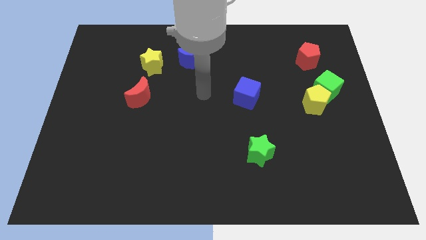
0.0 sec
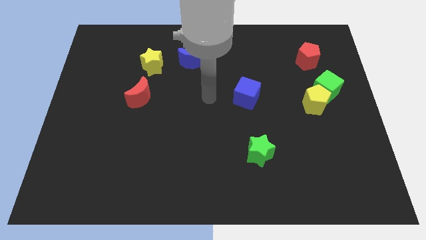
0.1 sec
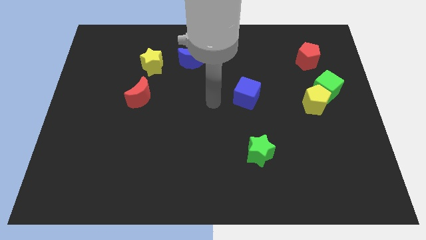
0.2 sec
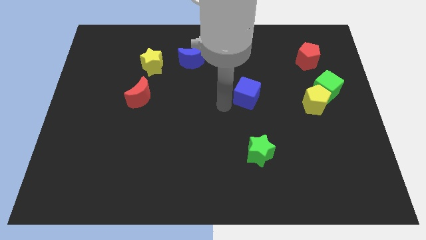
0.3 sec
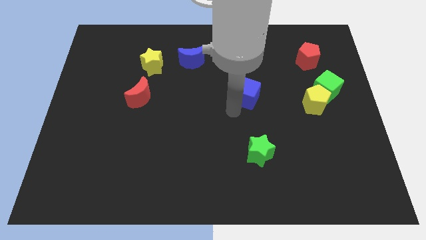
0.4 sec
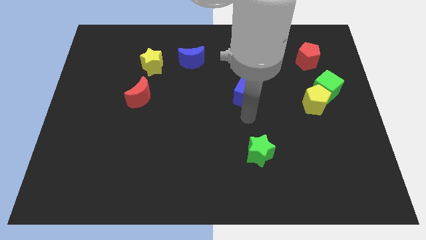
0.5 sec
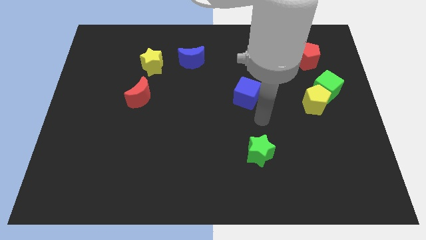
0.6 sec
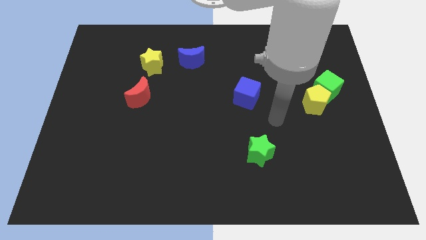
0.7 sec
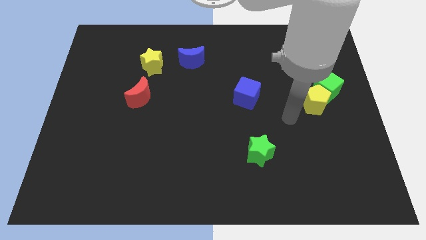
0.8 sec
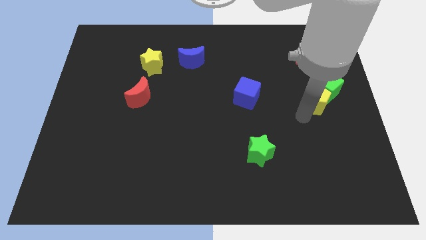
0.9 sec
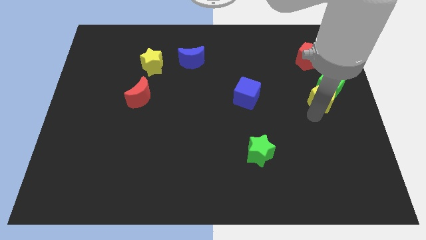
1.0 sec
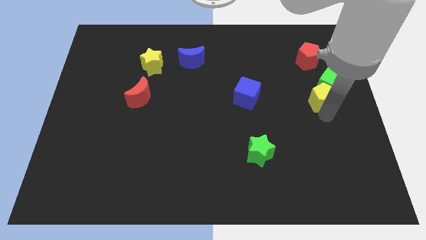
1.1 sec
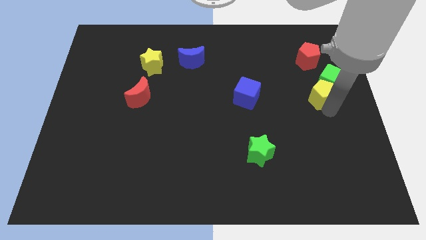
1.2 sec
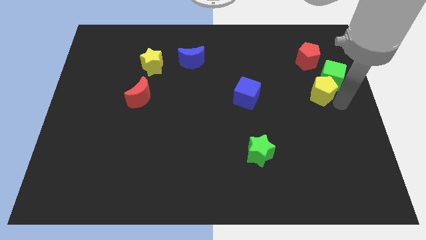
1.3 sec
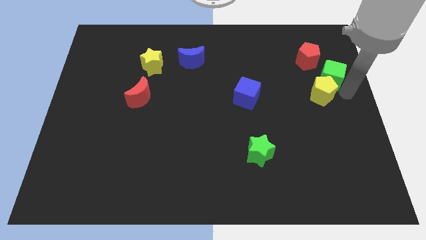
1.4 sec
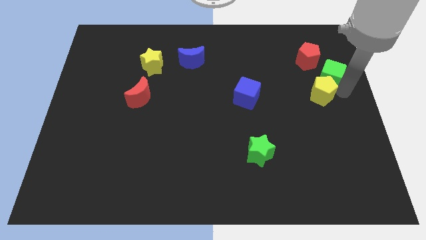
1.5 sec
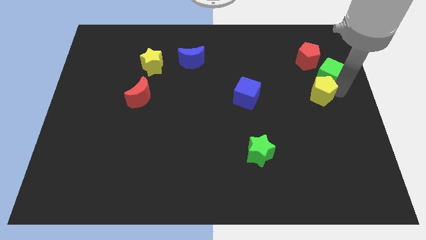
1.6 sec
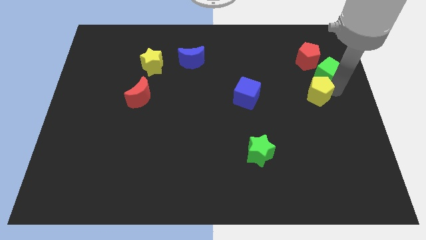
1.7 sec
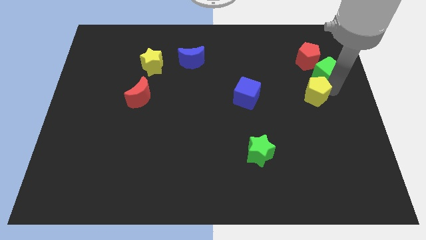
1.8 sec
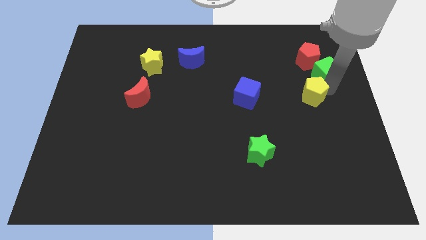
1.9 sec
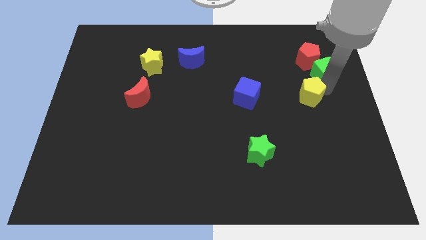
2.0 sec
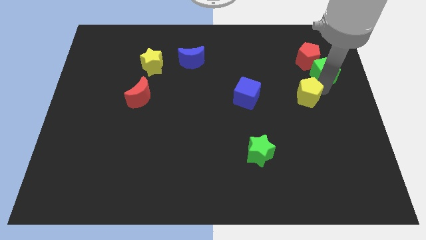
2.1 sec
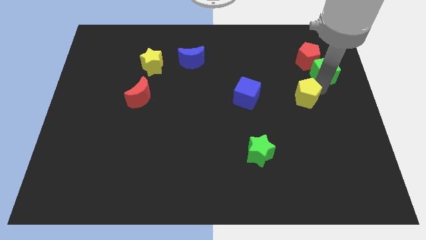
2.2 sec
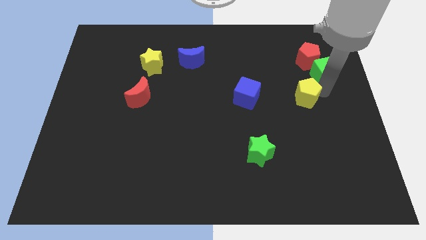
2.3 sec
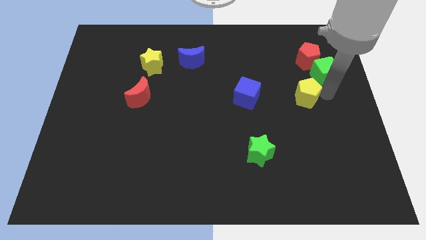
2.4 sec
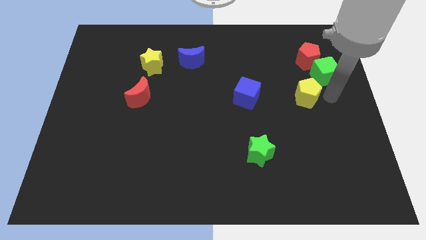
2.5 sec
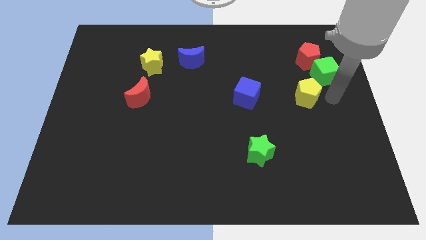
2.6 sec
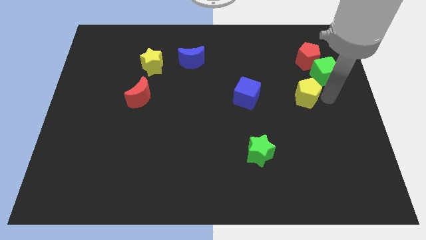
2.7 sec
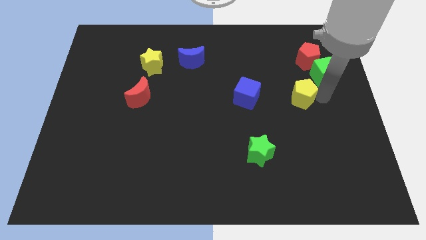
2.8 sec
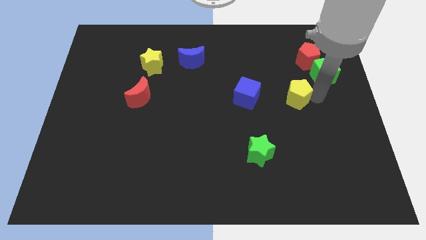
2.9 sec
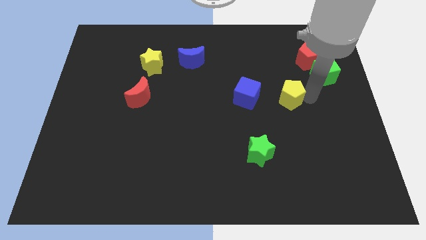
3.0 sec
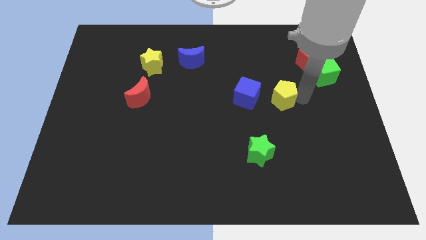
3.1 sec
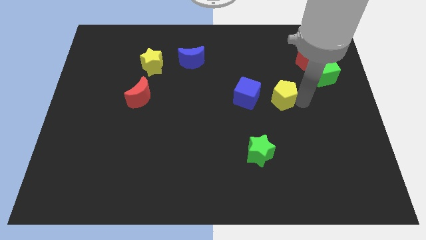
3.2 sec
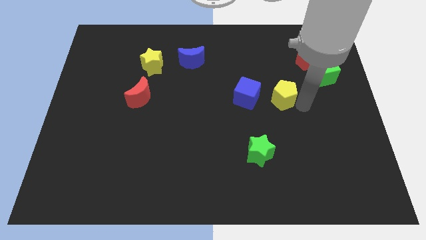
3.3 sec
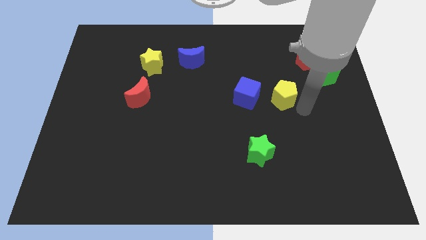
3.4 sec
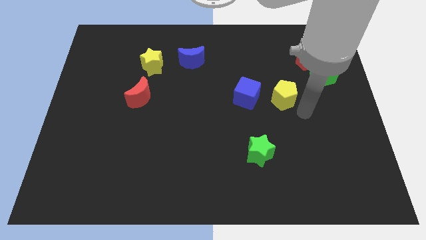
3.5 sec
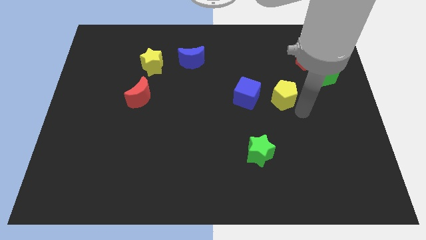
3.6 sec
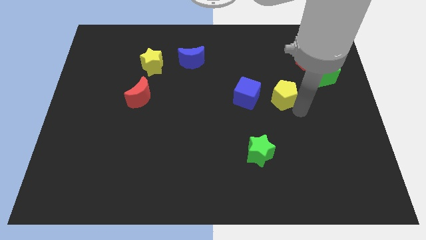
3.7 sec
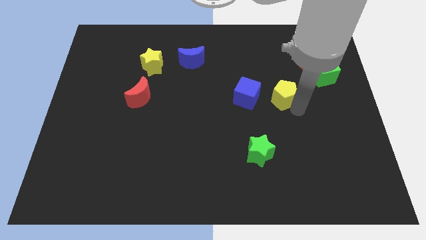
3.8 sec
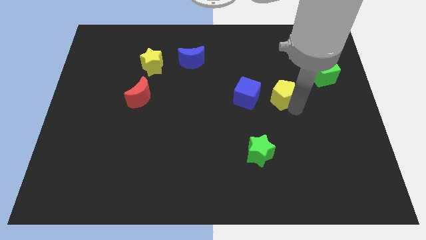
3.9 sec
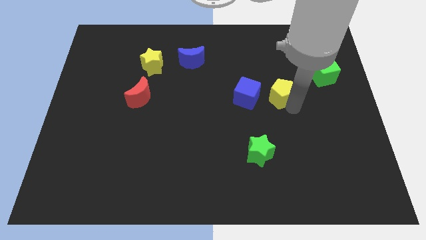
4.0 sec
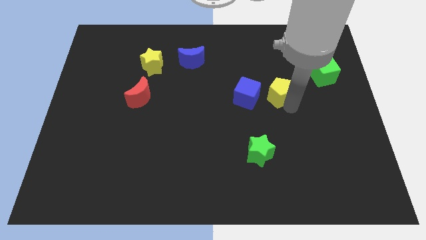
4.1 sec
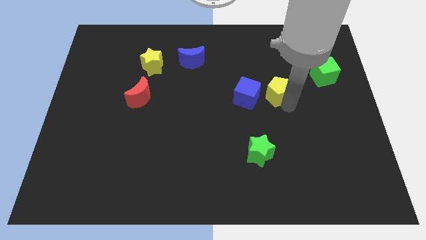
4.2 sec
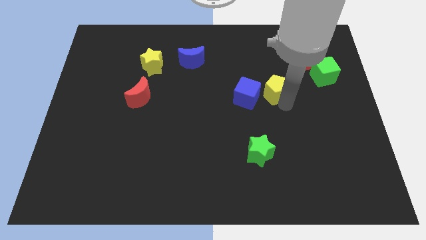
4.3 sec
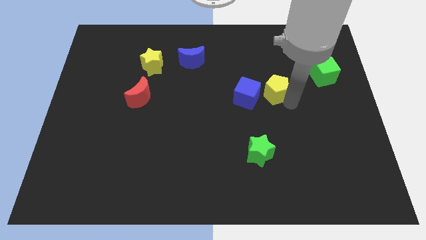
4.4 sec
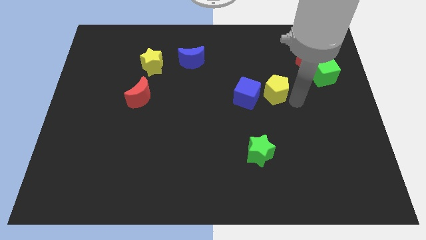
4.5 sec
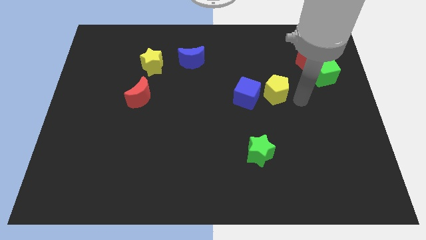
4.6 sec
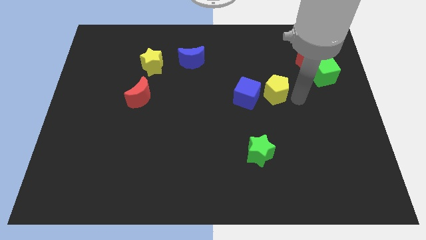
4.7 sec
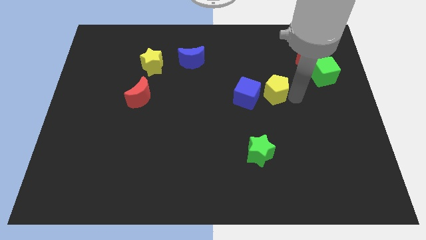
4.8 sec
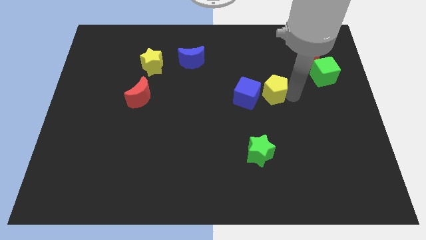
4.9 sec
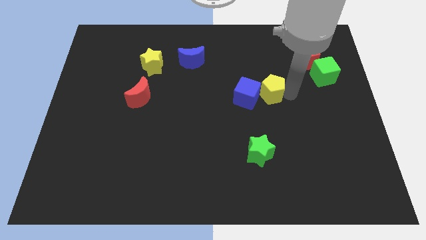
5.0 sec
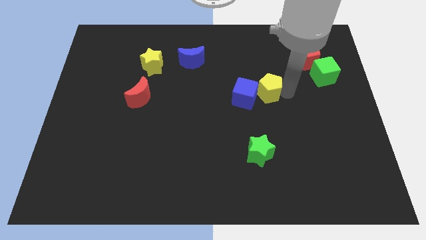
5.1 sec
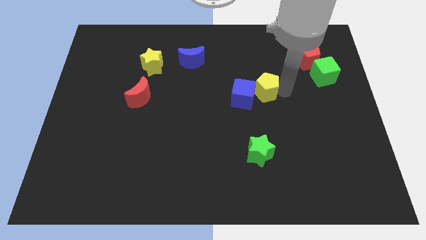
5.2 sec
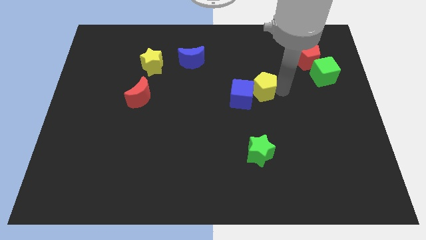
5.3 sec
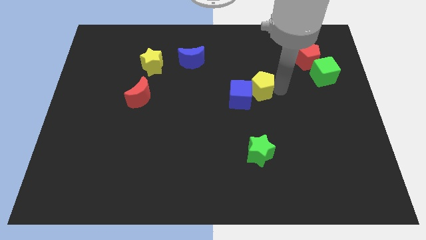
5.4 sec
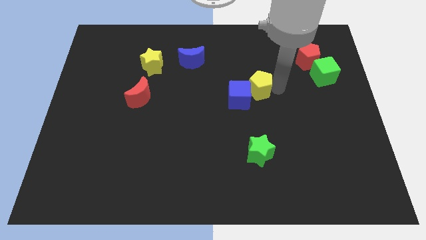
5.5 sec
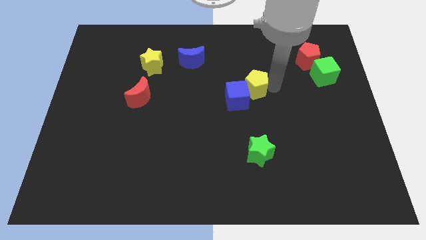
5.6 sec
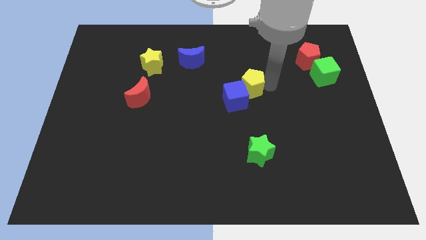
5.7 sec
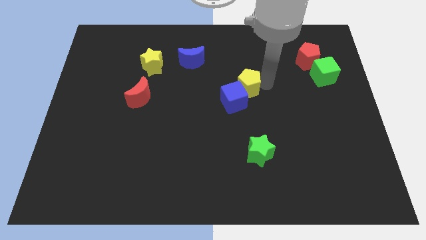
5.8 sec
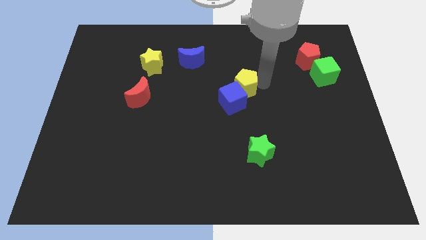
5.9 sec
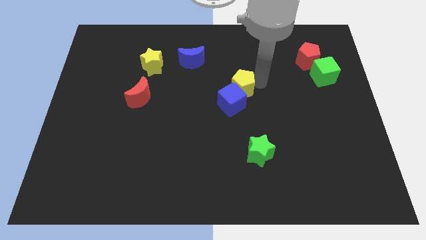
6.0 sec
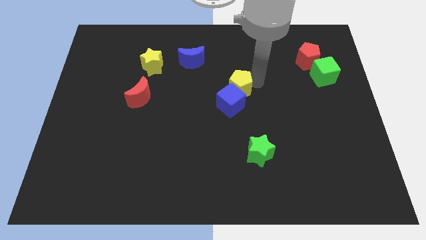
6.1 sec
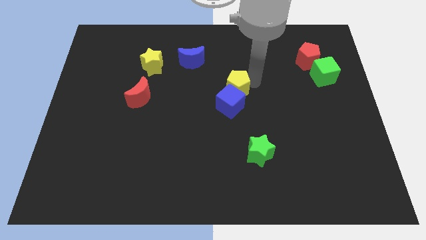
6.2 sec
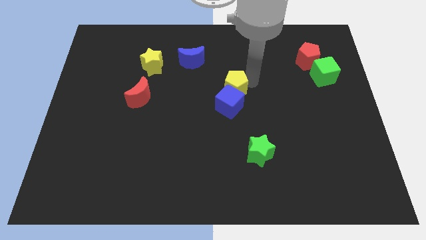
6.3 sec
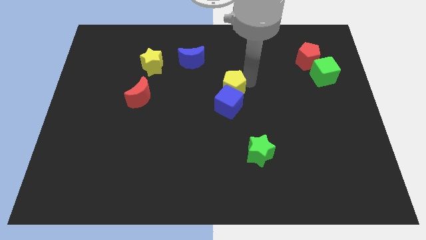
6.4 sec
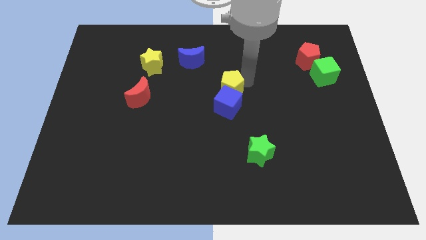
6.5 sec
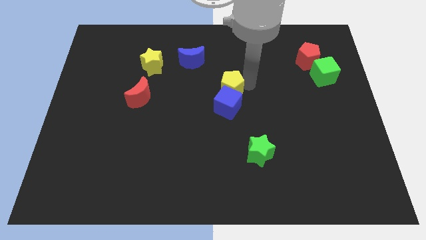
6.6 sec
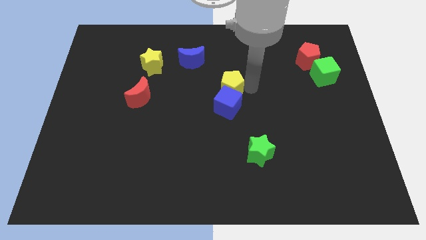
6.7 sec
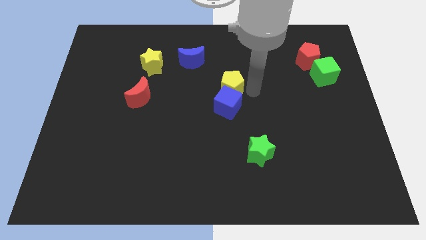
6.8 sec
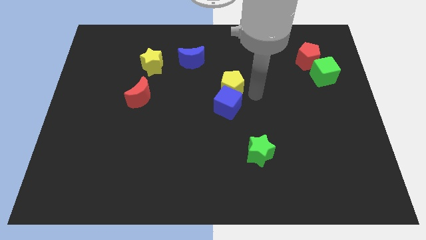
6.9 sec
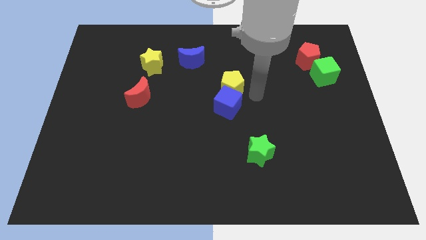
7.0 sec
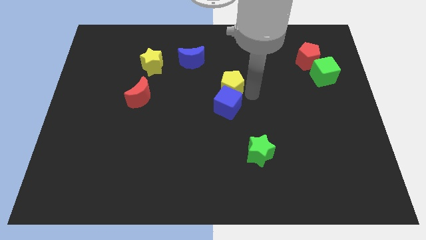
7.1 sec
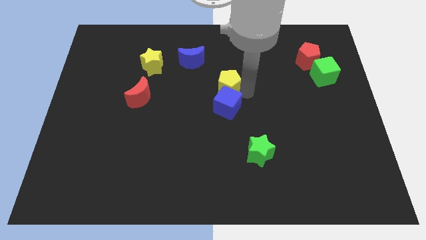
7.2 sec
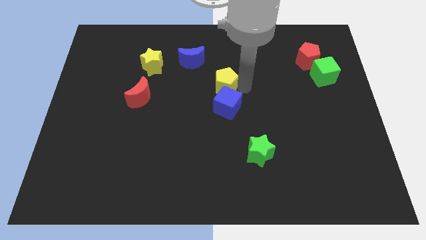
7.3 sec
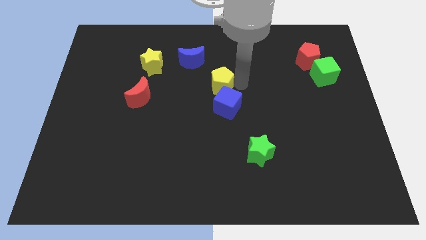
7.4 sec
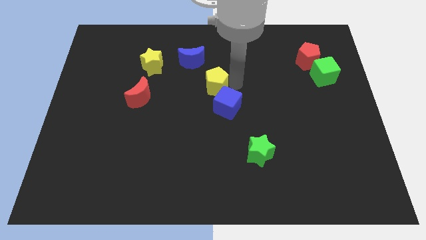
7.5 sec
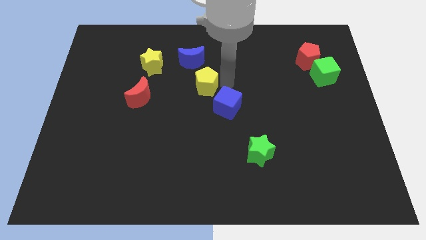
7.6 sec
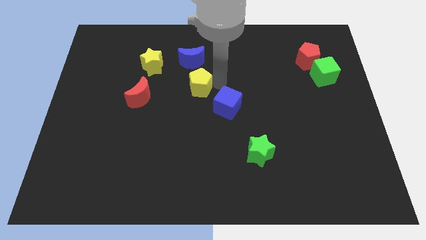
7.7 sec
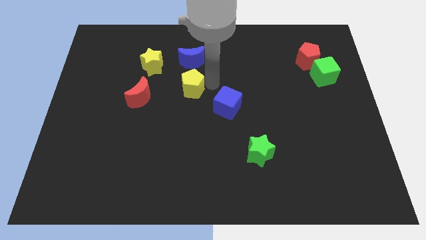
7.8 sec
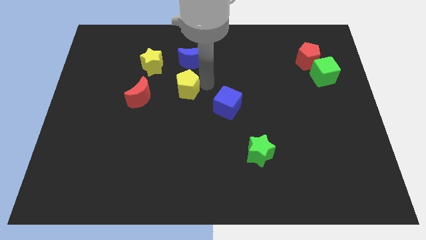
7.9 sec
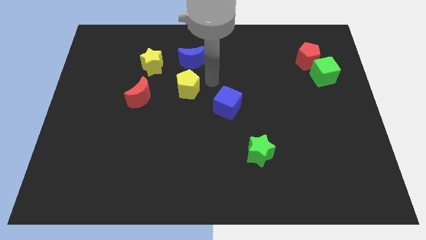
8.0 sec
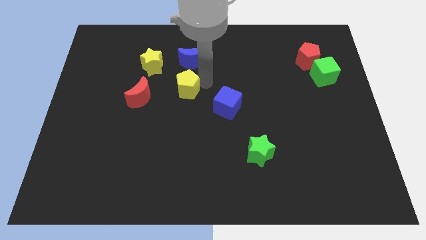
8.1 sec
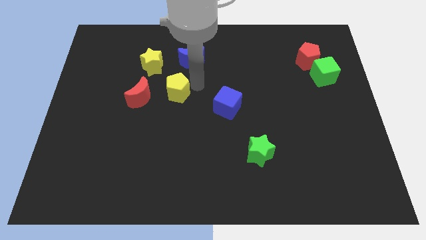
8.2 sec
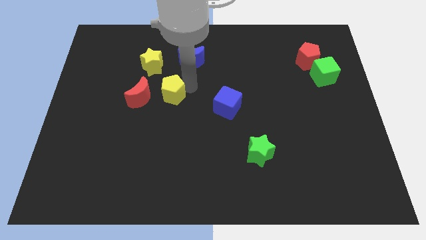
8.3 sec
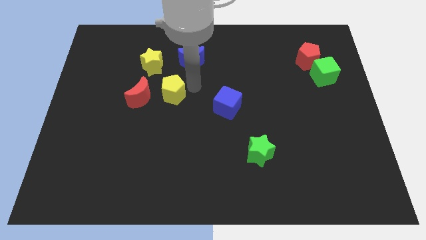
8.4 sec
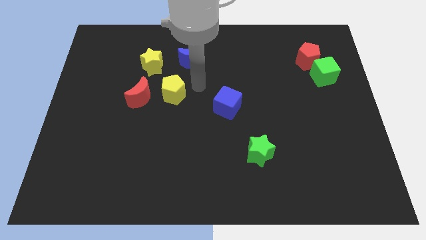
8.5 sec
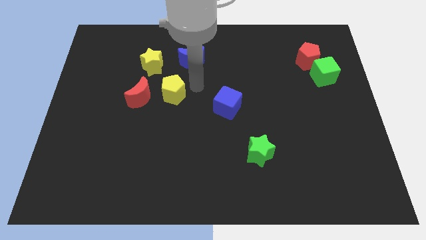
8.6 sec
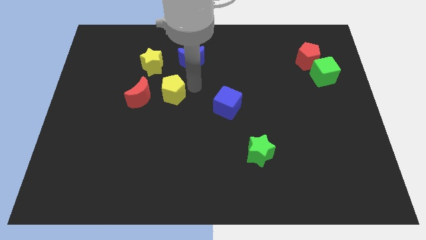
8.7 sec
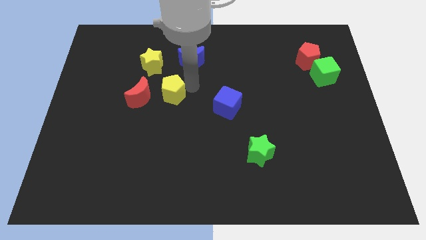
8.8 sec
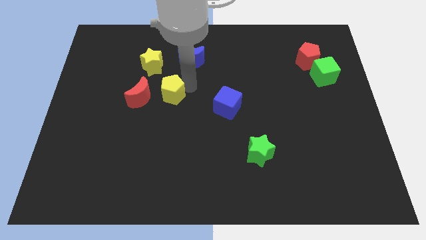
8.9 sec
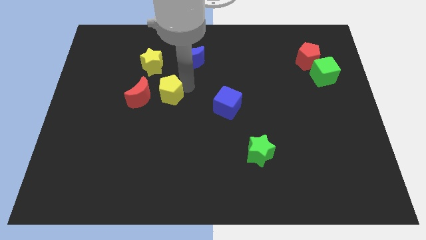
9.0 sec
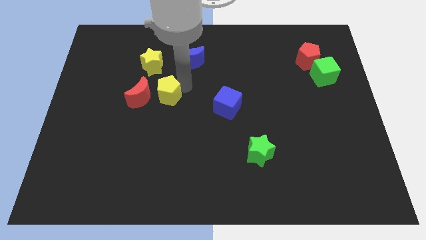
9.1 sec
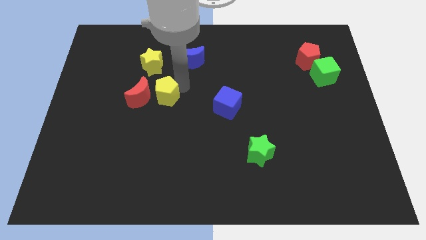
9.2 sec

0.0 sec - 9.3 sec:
move the yellow pentagon to the red moon
